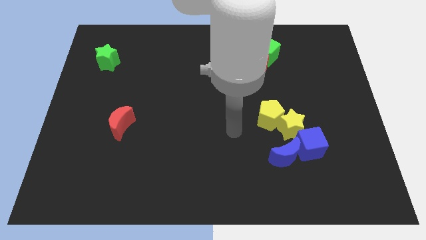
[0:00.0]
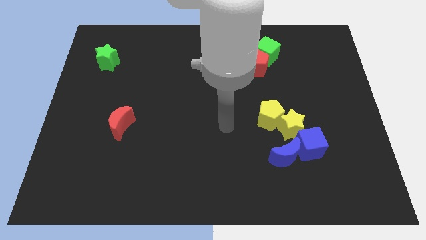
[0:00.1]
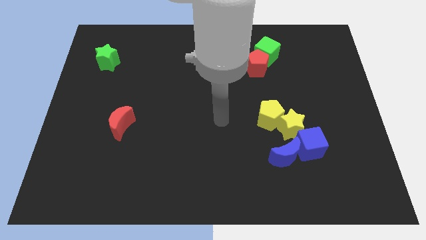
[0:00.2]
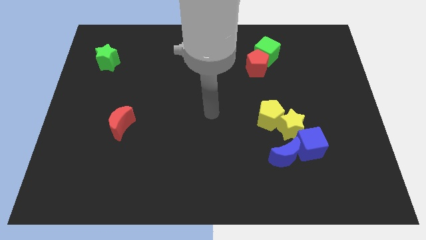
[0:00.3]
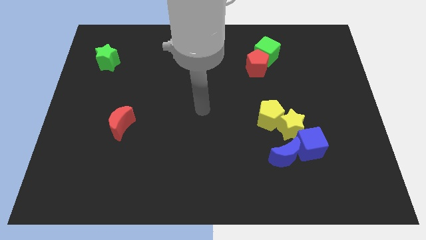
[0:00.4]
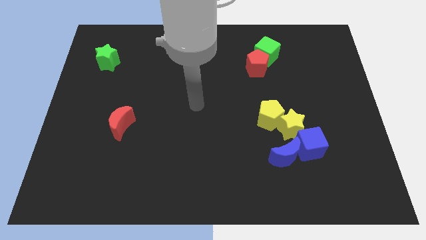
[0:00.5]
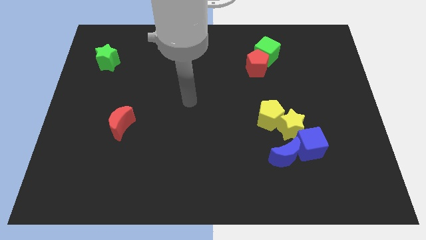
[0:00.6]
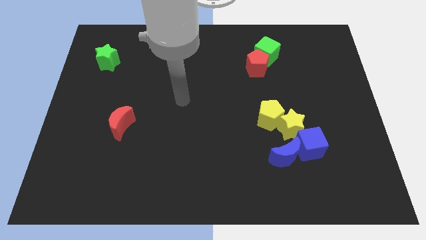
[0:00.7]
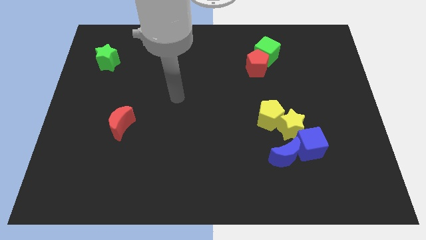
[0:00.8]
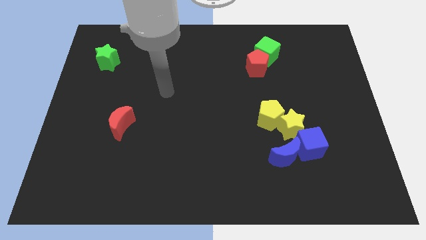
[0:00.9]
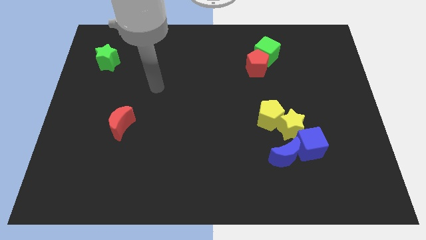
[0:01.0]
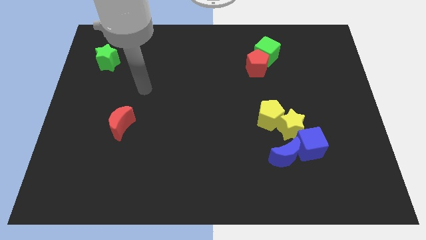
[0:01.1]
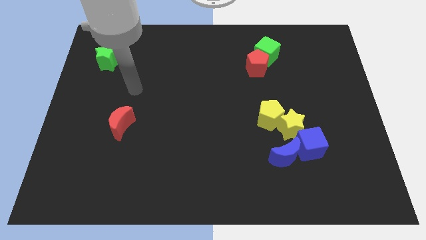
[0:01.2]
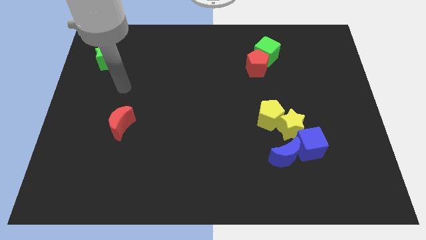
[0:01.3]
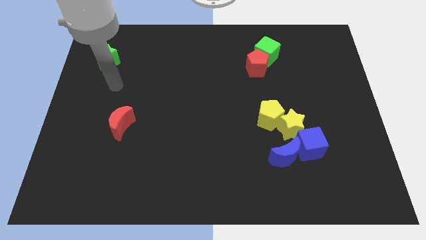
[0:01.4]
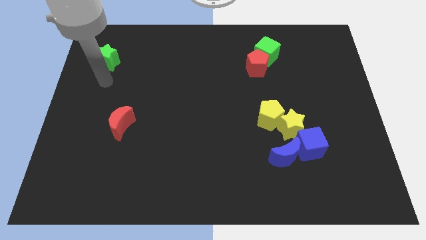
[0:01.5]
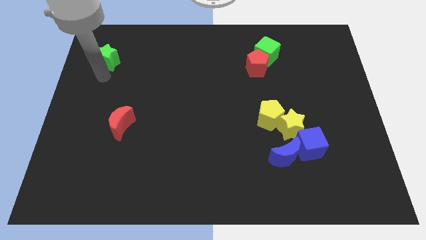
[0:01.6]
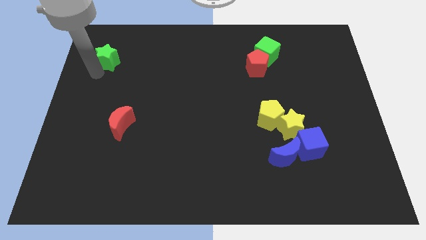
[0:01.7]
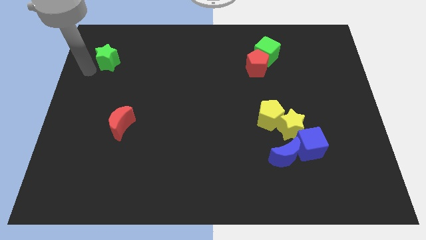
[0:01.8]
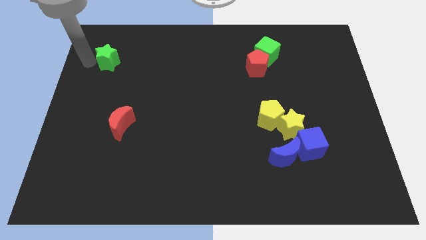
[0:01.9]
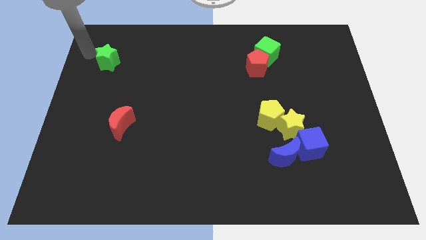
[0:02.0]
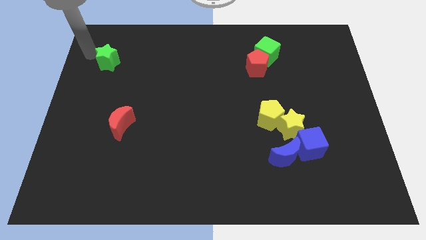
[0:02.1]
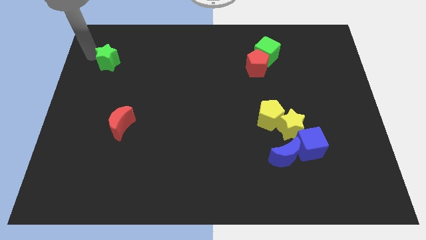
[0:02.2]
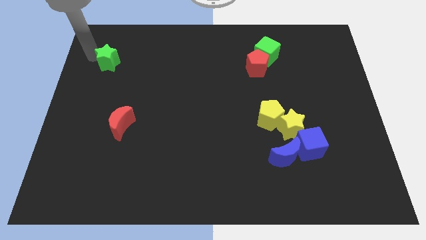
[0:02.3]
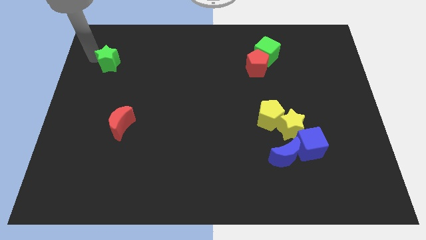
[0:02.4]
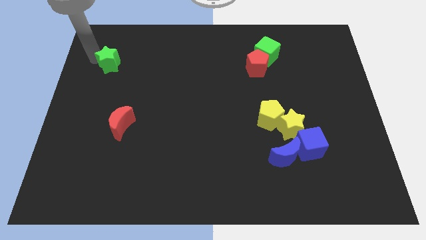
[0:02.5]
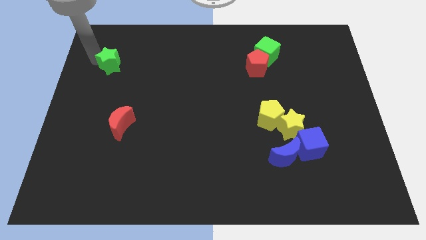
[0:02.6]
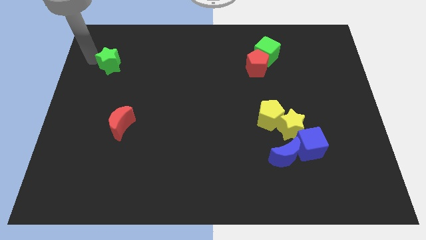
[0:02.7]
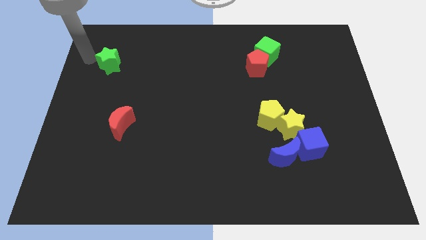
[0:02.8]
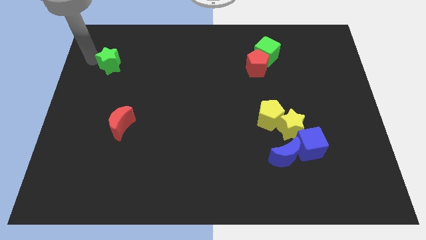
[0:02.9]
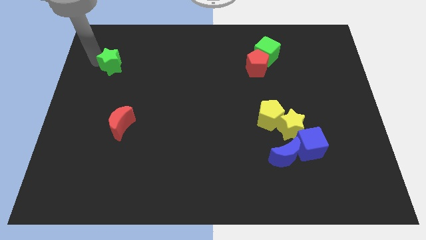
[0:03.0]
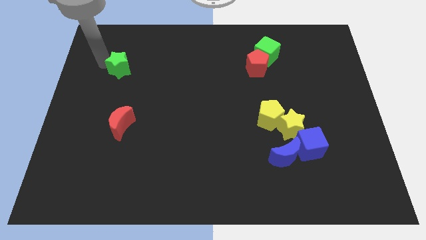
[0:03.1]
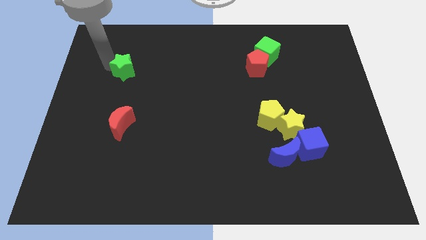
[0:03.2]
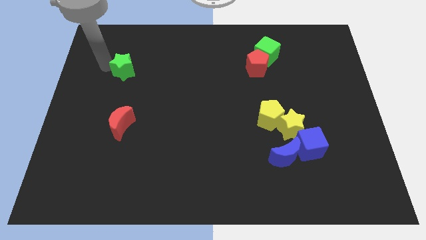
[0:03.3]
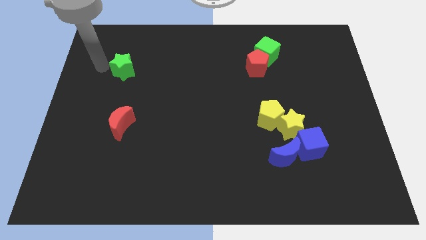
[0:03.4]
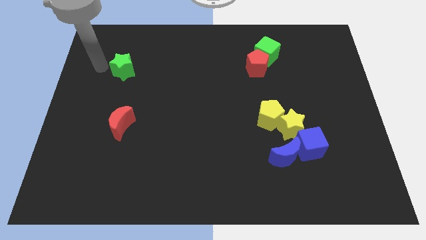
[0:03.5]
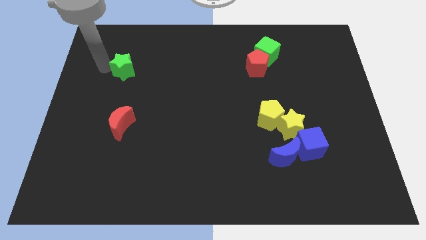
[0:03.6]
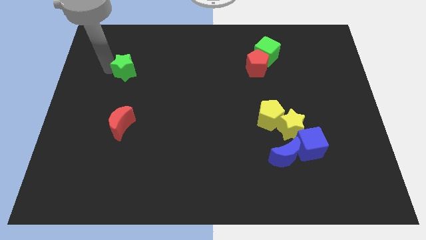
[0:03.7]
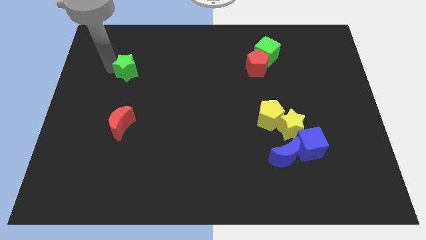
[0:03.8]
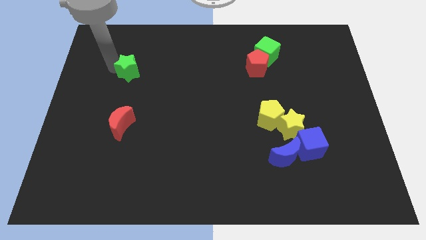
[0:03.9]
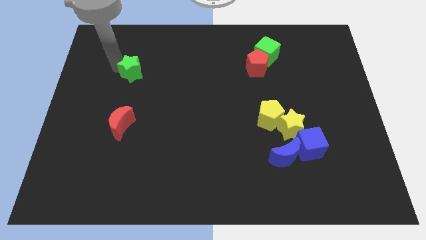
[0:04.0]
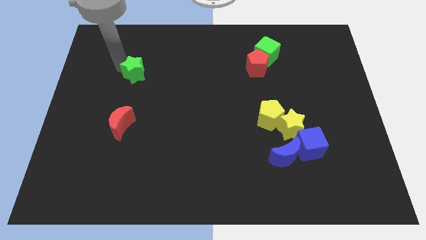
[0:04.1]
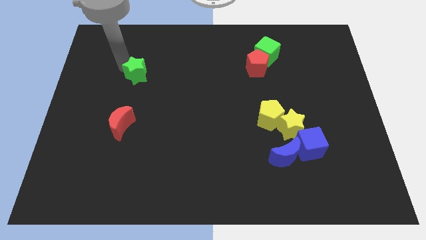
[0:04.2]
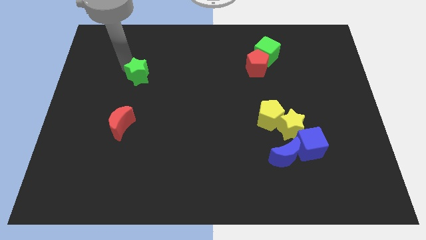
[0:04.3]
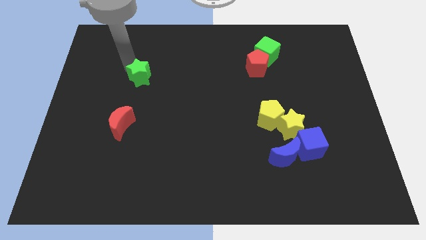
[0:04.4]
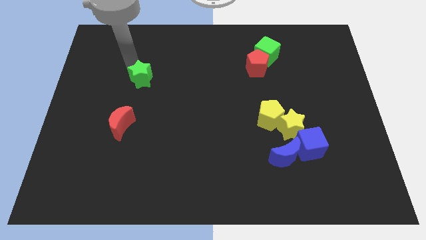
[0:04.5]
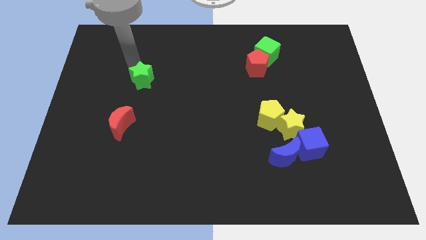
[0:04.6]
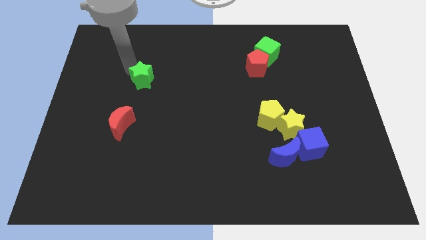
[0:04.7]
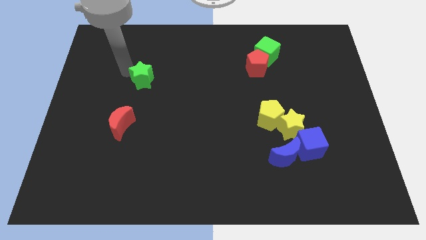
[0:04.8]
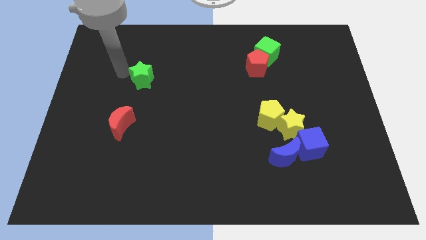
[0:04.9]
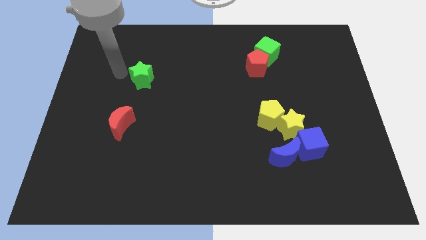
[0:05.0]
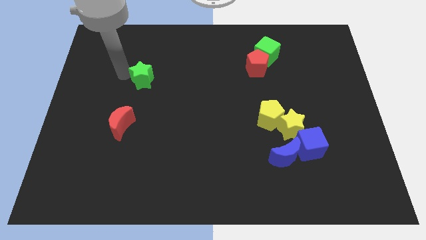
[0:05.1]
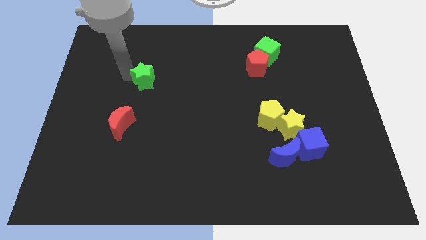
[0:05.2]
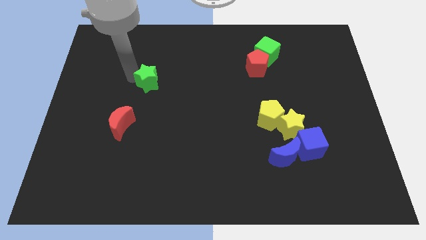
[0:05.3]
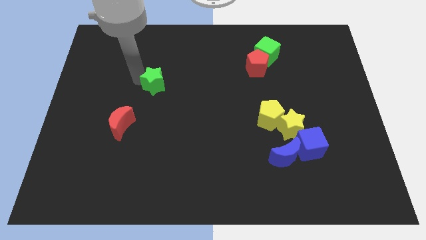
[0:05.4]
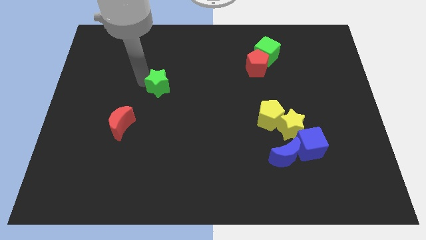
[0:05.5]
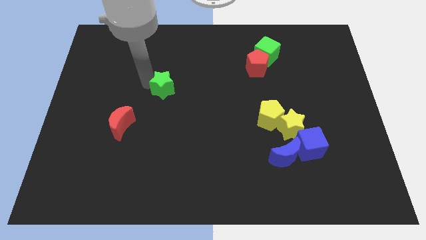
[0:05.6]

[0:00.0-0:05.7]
move the green star to the center
